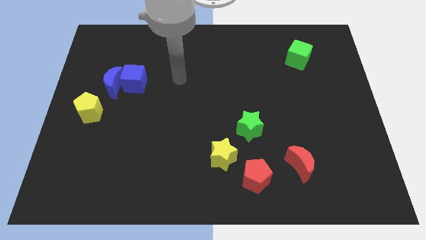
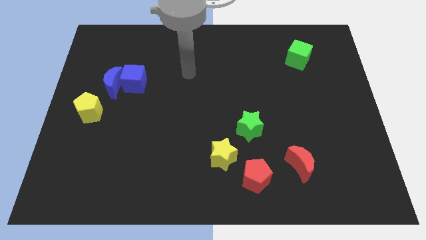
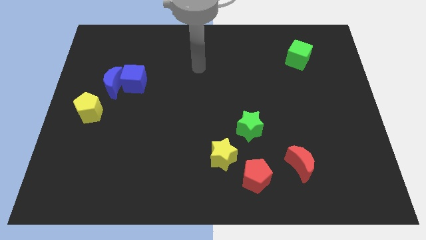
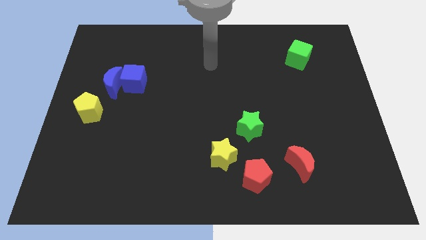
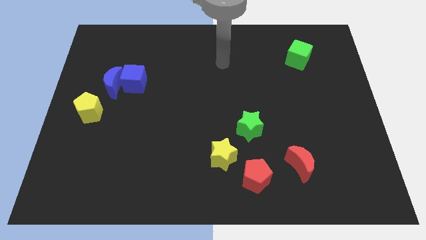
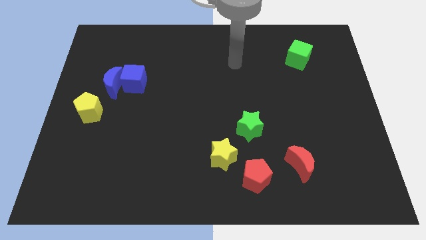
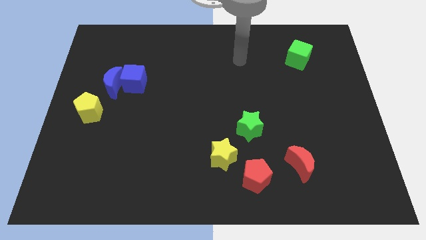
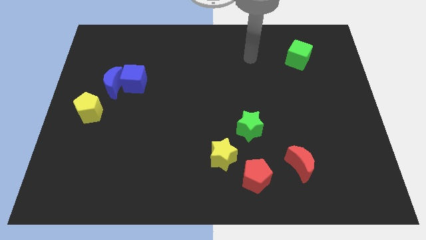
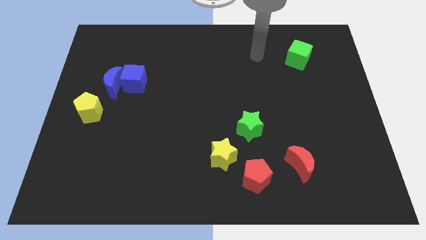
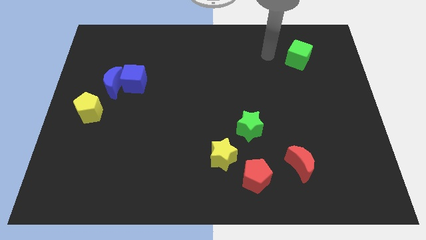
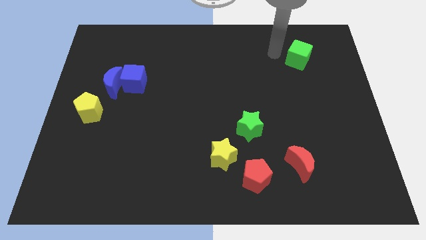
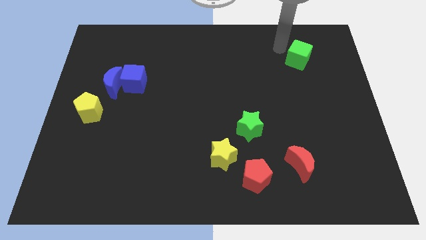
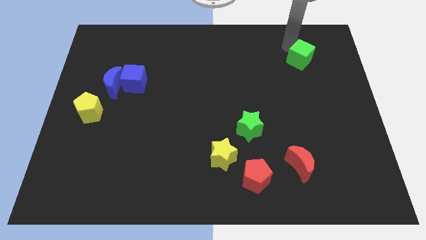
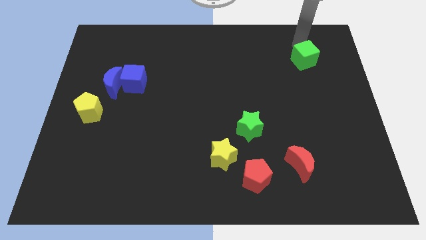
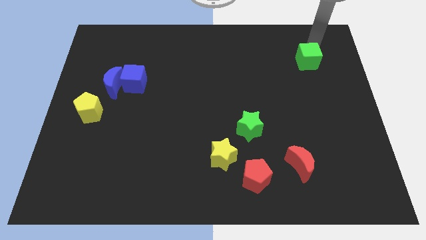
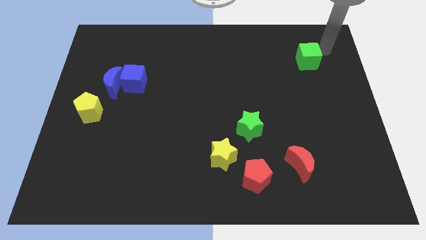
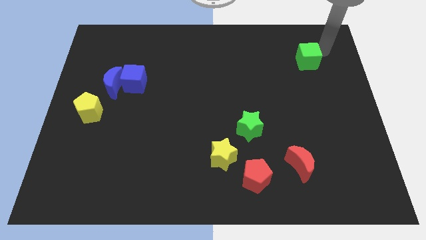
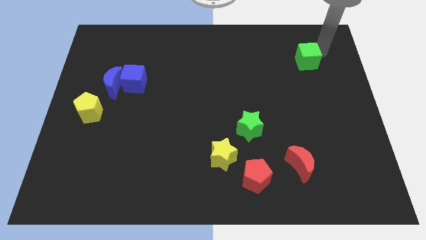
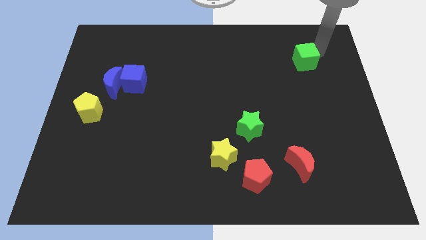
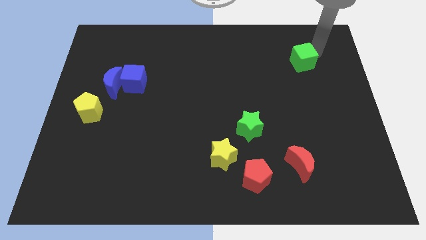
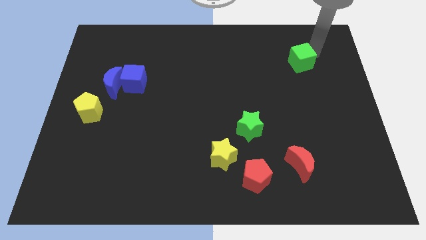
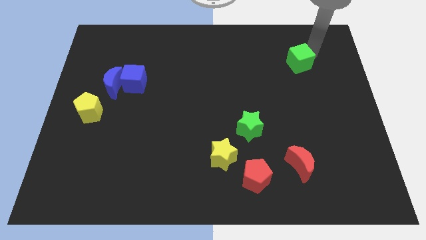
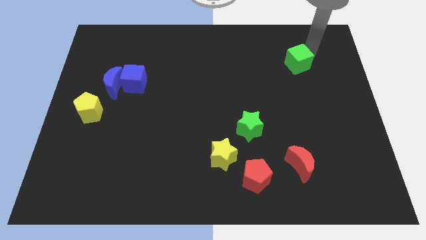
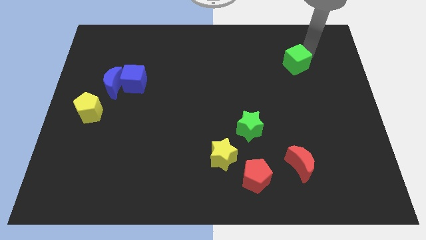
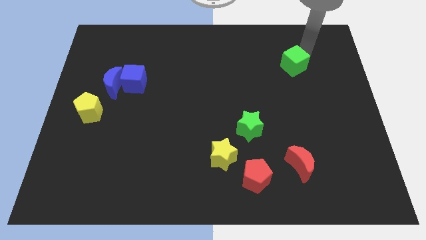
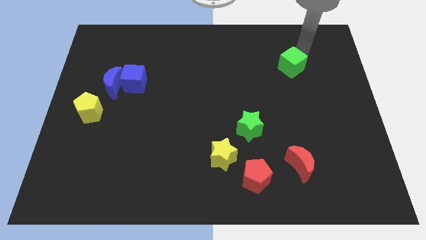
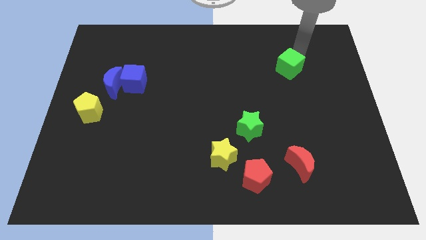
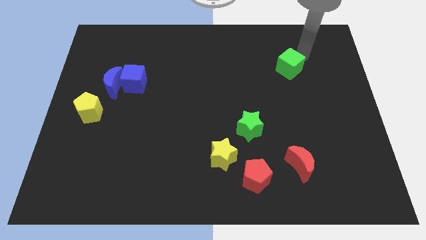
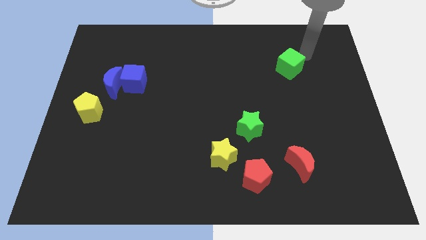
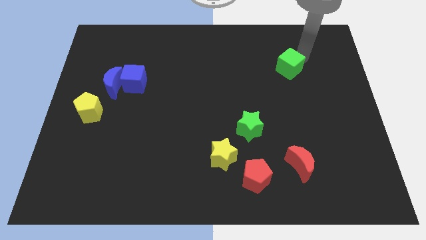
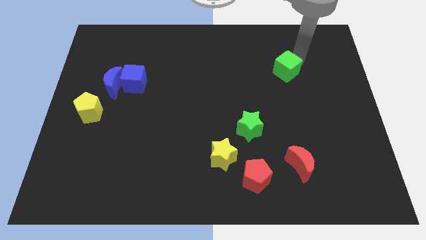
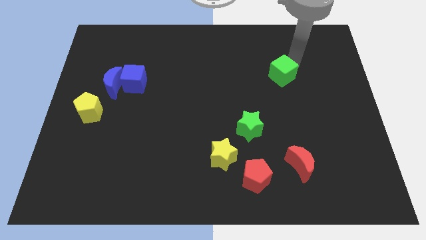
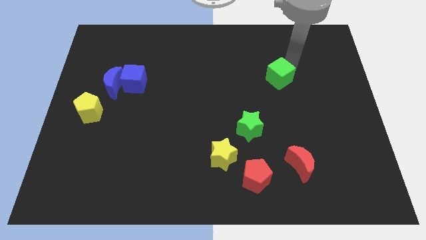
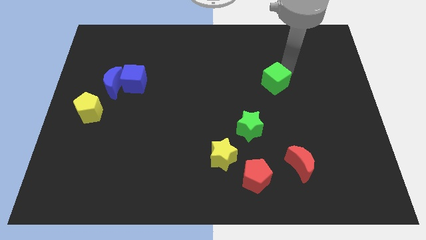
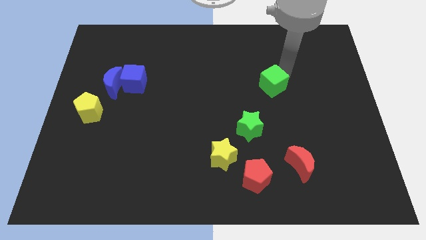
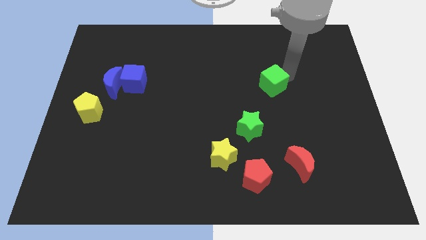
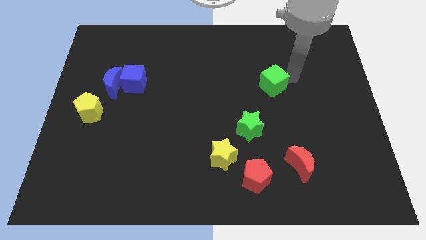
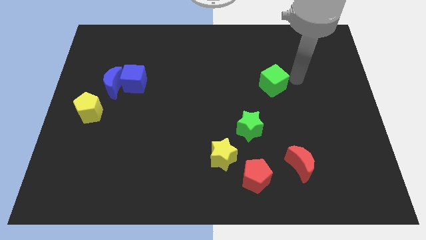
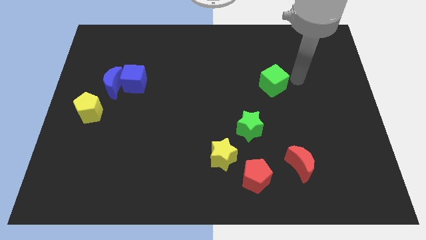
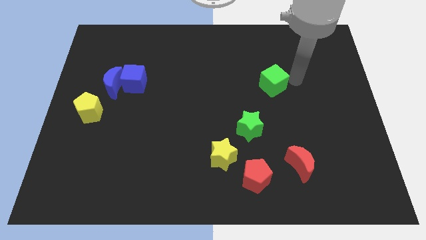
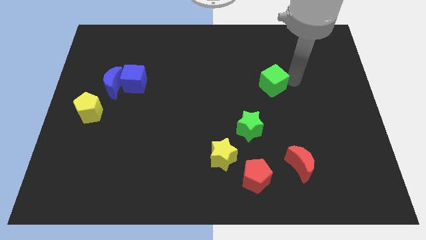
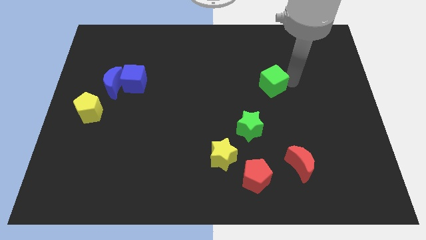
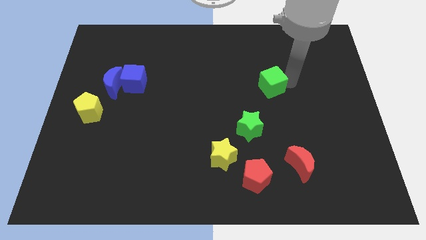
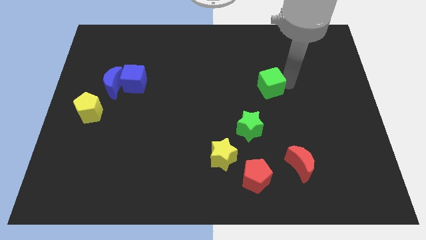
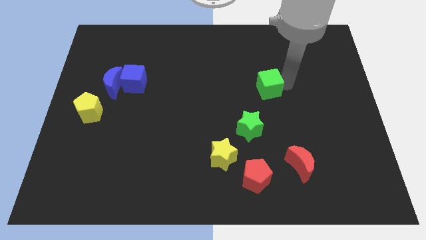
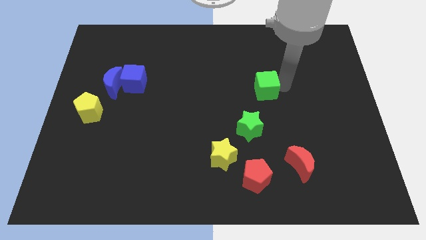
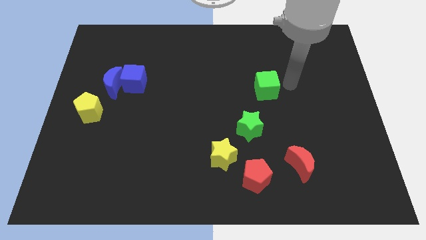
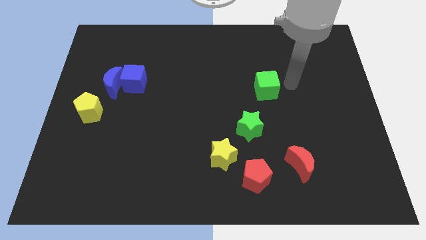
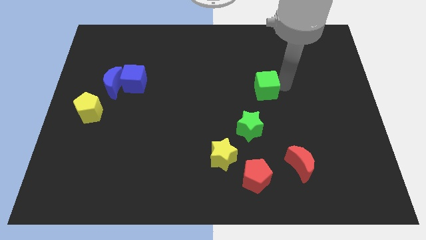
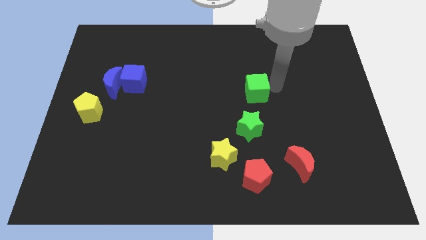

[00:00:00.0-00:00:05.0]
move the green cube to the middle

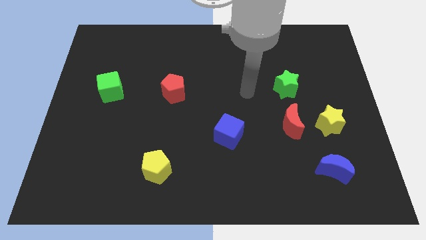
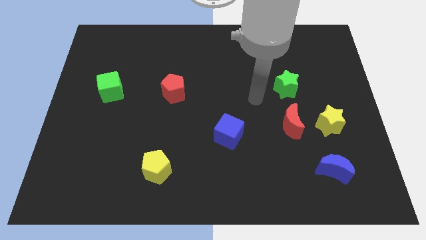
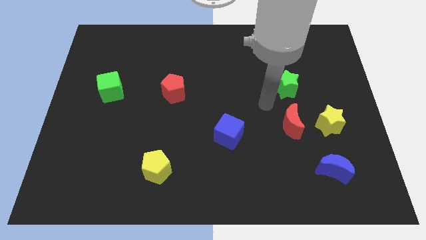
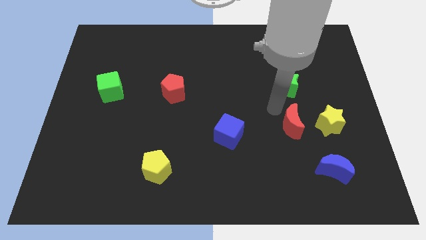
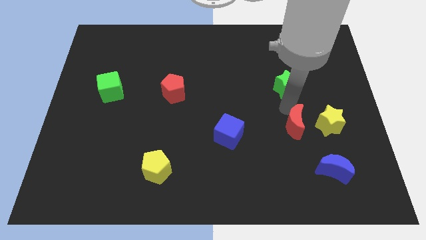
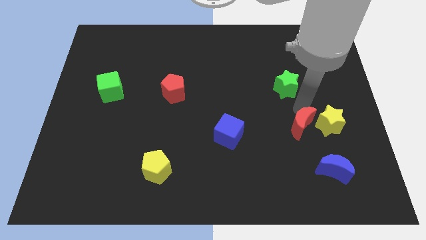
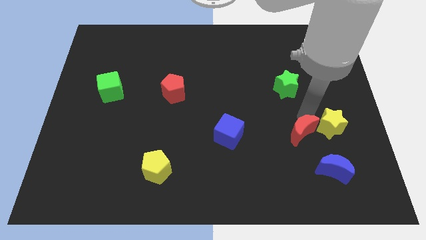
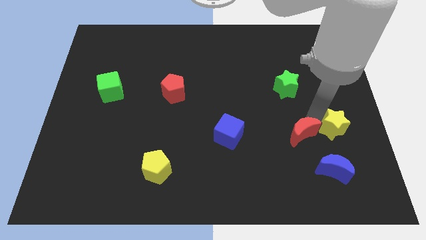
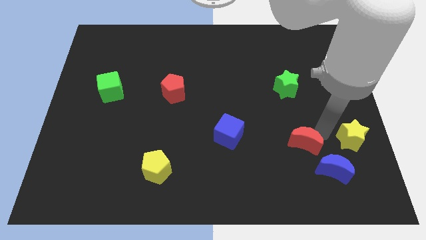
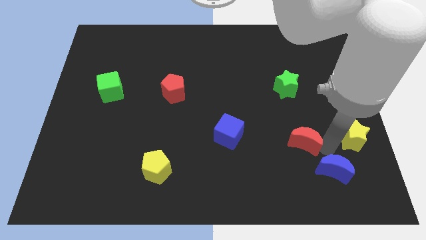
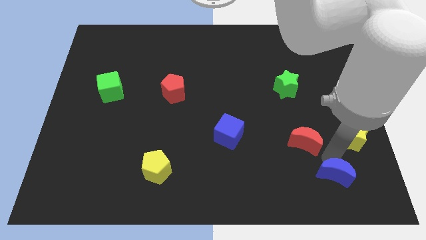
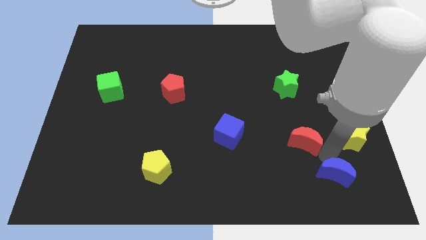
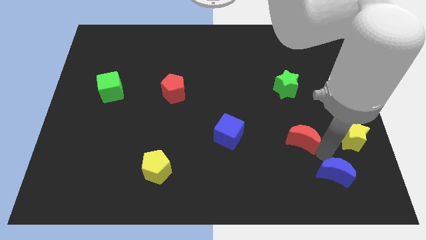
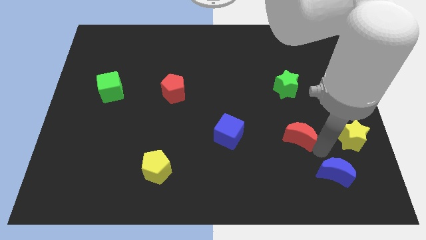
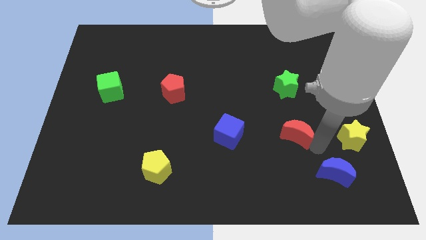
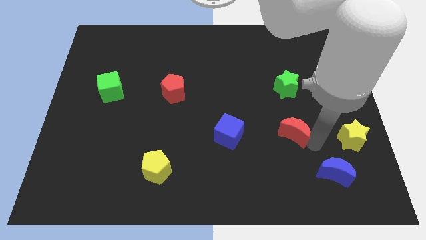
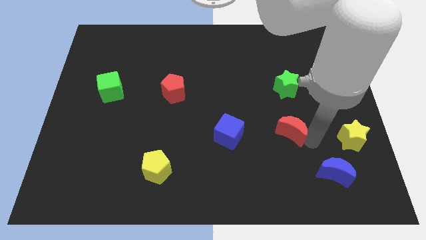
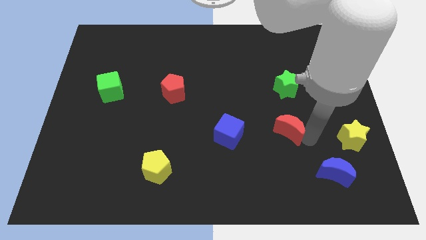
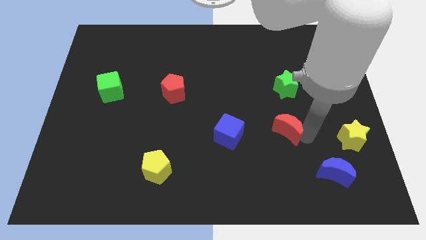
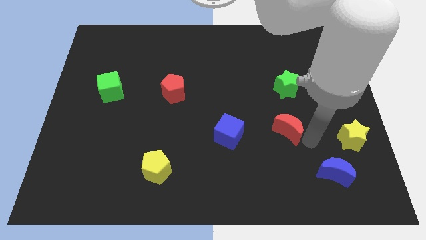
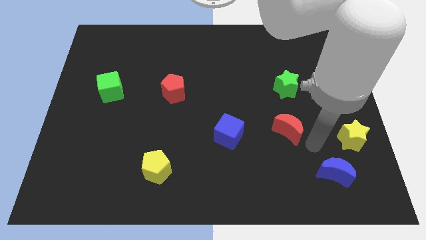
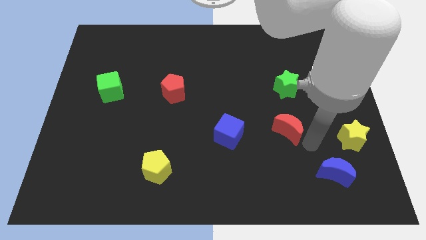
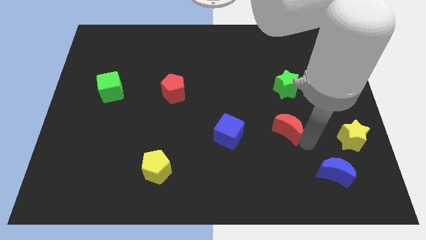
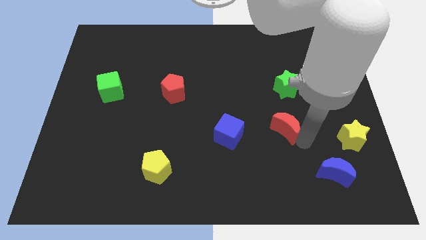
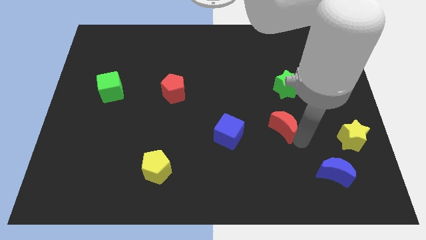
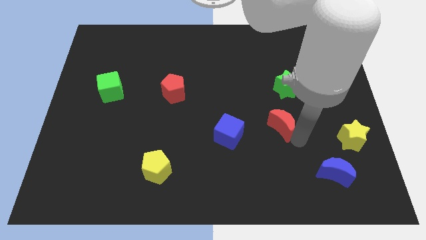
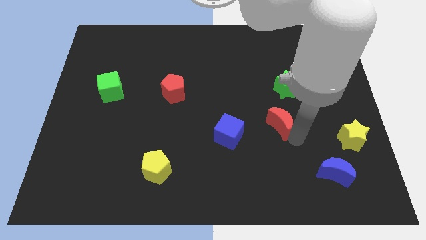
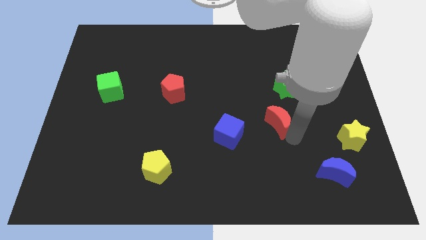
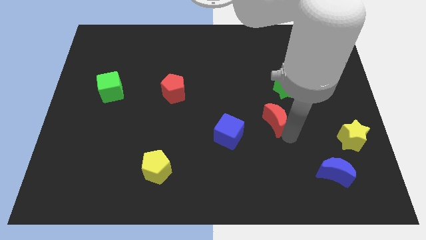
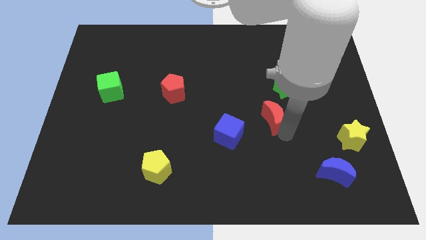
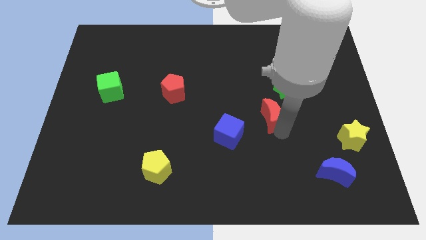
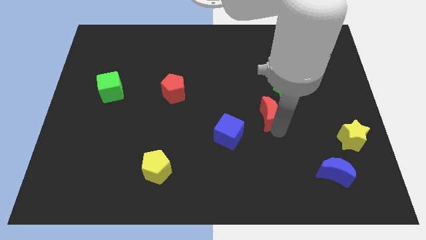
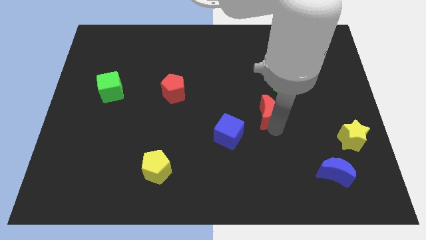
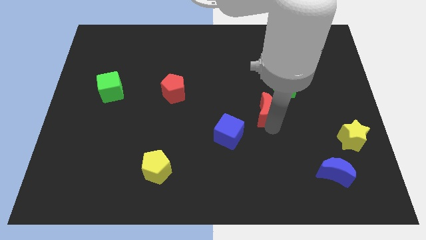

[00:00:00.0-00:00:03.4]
slide the red moon to the center of the board
